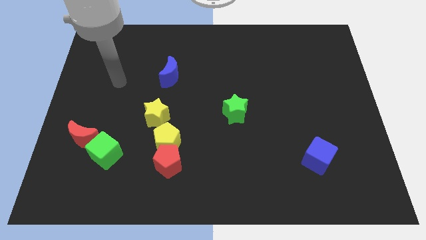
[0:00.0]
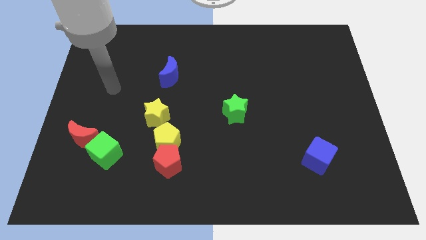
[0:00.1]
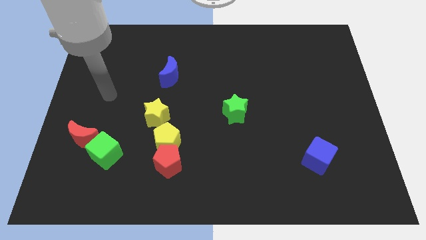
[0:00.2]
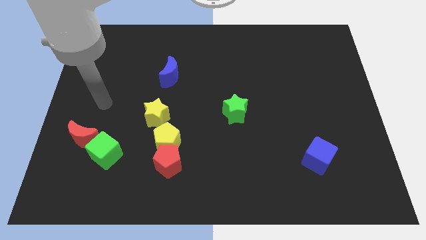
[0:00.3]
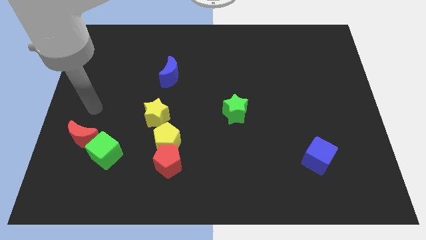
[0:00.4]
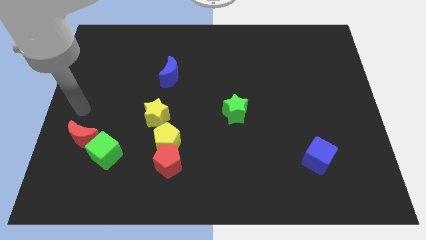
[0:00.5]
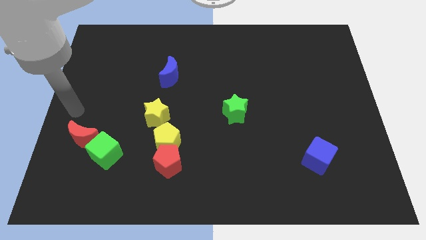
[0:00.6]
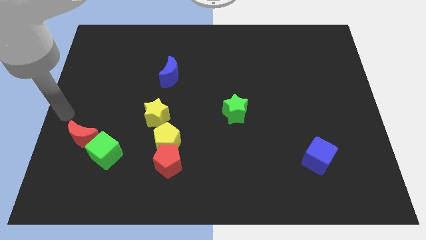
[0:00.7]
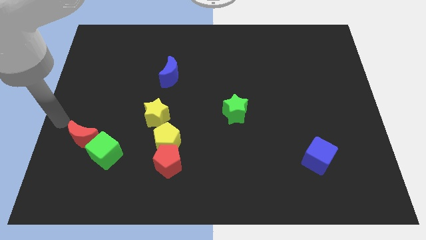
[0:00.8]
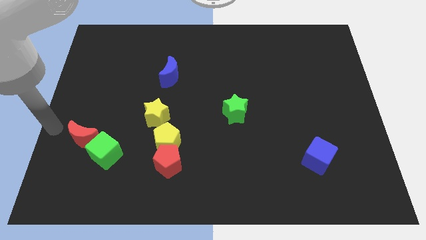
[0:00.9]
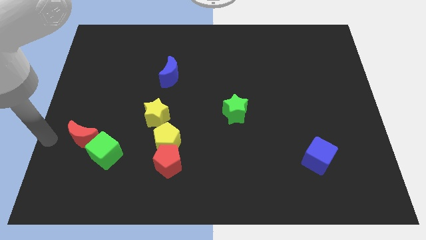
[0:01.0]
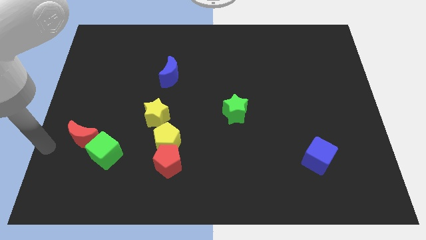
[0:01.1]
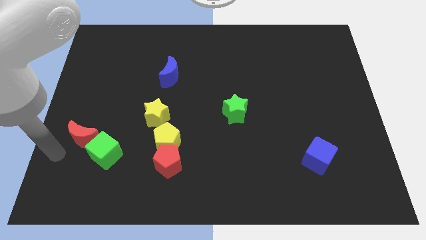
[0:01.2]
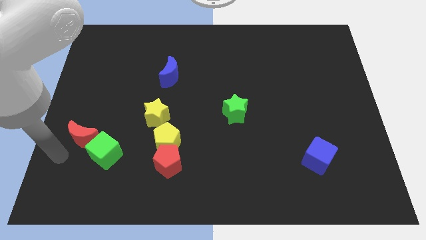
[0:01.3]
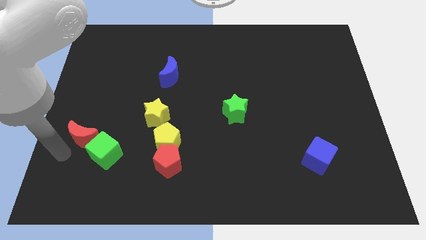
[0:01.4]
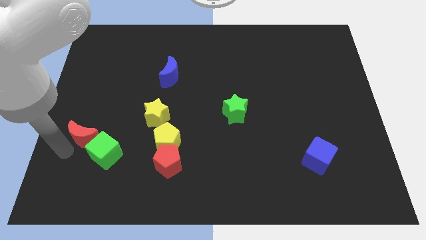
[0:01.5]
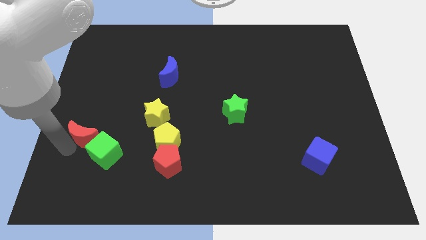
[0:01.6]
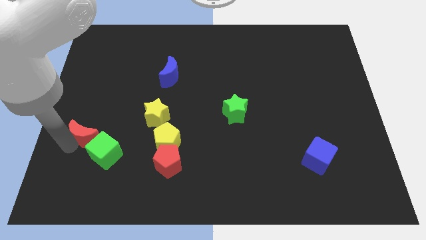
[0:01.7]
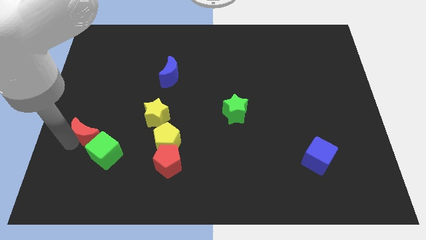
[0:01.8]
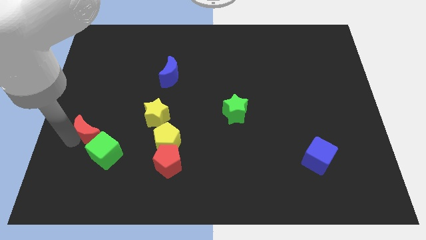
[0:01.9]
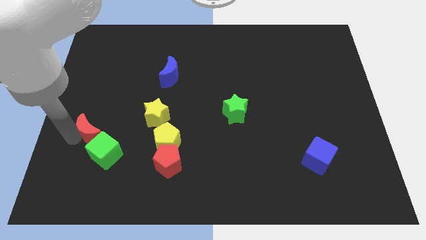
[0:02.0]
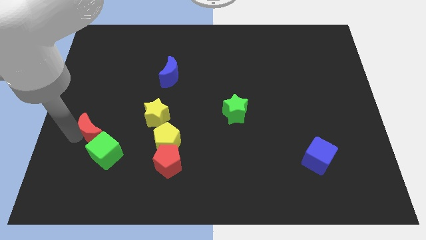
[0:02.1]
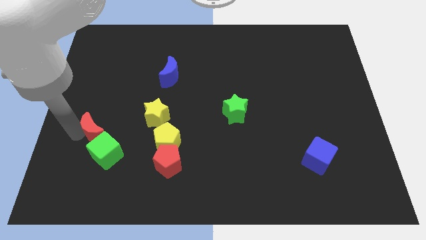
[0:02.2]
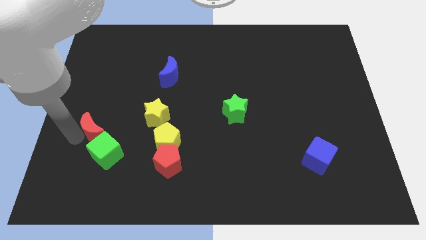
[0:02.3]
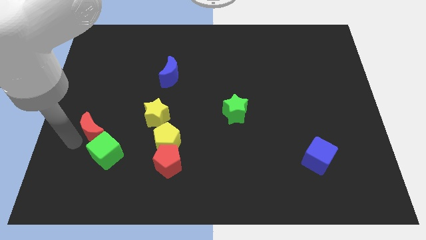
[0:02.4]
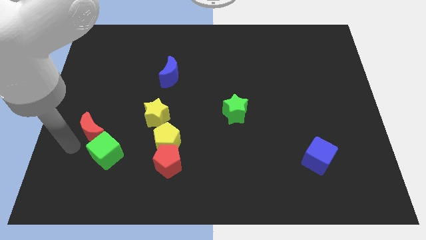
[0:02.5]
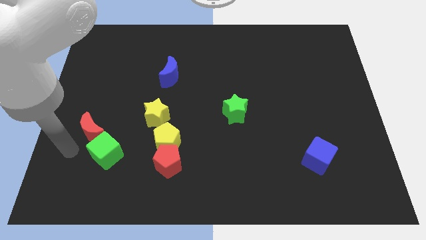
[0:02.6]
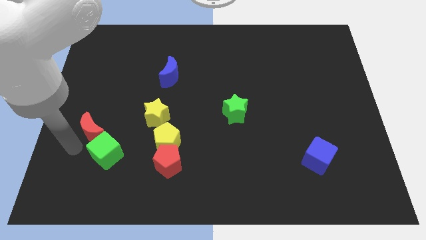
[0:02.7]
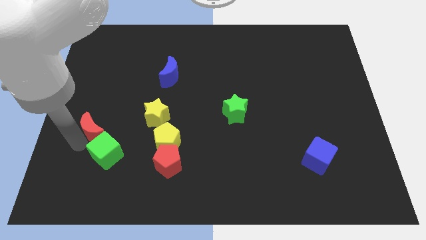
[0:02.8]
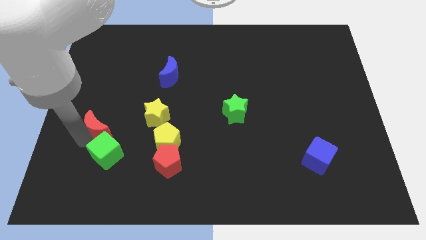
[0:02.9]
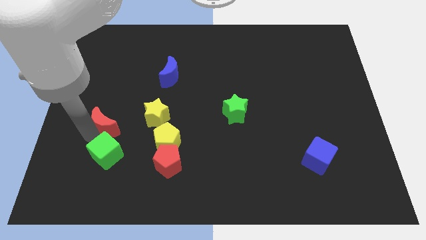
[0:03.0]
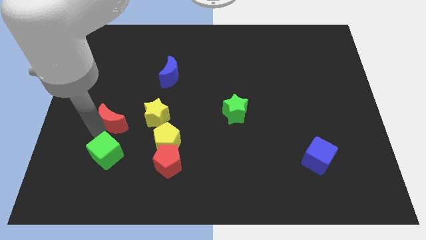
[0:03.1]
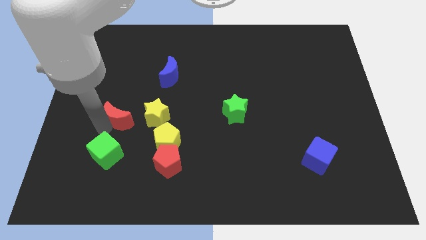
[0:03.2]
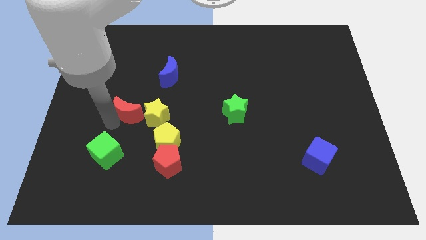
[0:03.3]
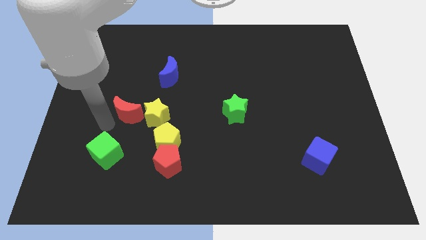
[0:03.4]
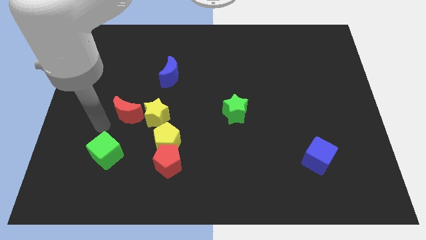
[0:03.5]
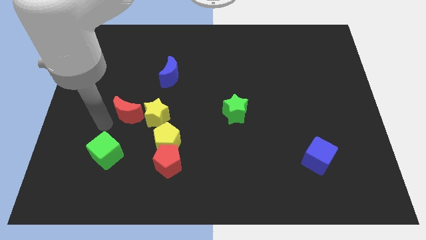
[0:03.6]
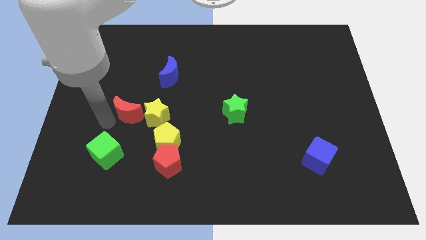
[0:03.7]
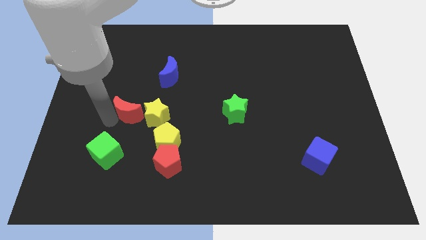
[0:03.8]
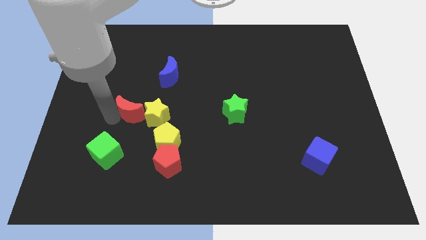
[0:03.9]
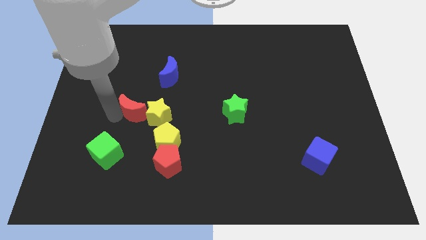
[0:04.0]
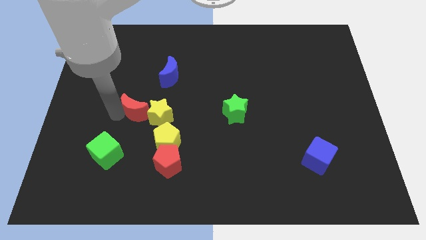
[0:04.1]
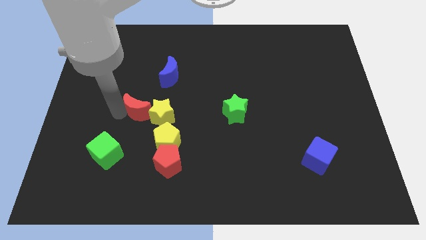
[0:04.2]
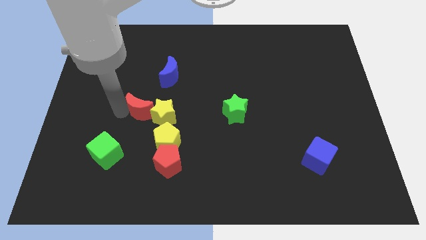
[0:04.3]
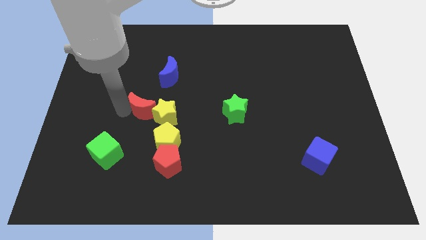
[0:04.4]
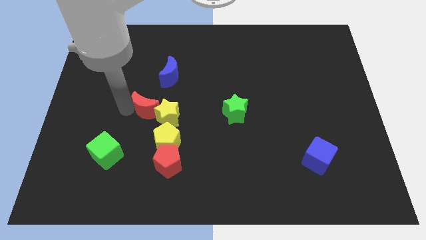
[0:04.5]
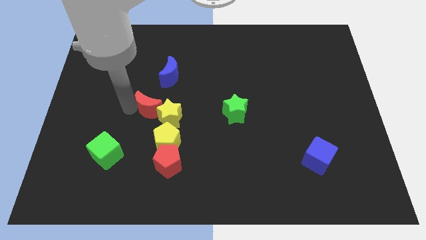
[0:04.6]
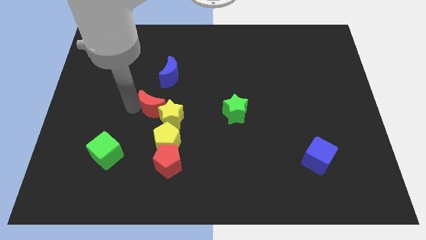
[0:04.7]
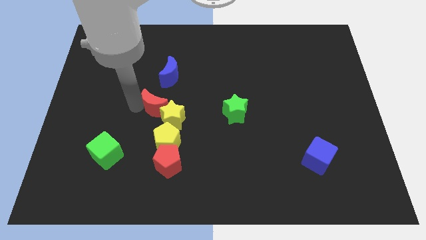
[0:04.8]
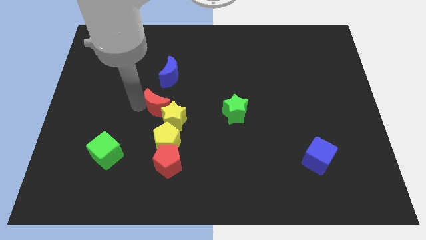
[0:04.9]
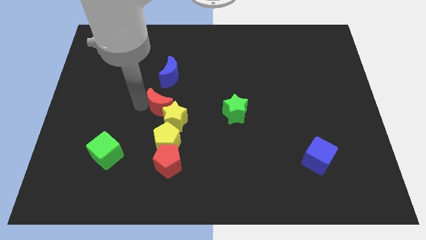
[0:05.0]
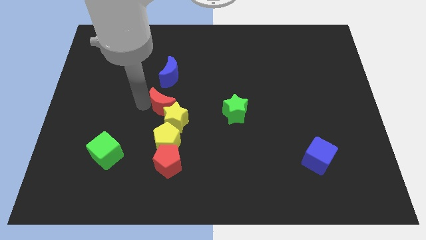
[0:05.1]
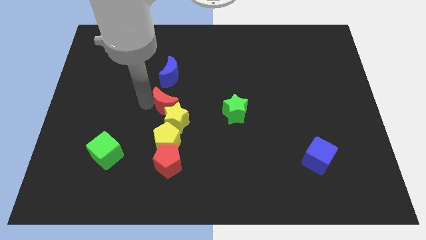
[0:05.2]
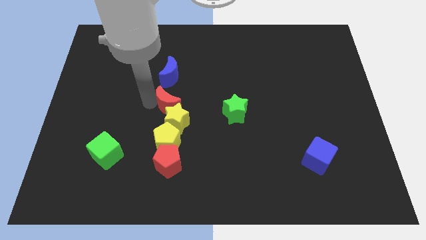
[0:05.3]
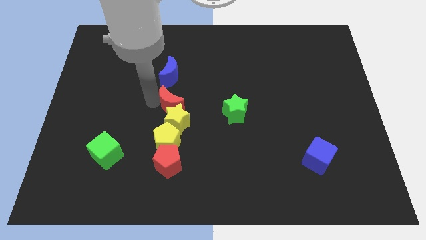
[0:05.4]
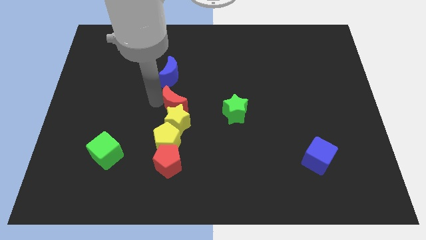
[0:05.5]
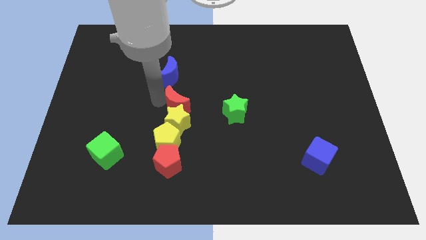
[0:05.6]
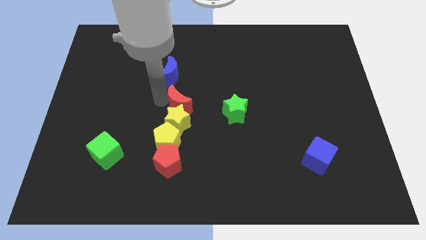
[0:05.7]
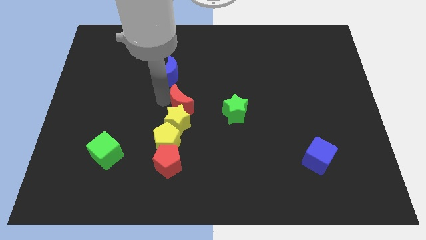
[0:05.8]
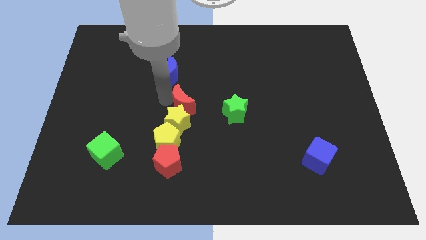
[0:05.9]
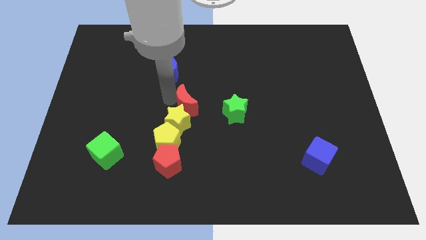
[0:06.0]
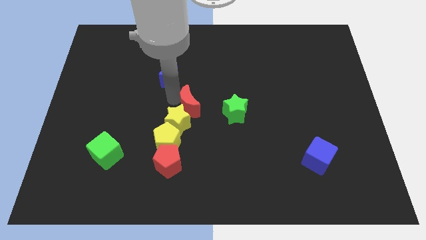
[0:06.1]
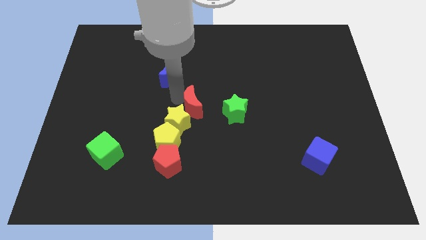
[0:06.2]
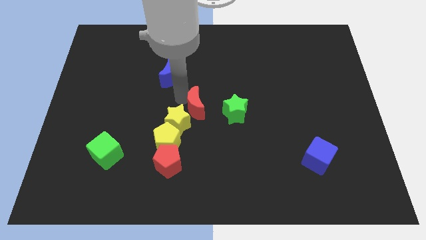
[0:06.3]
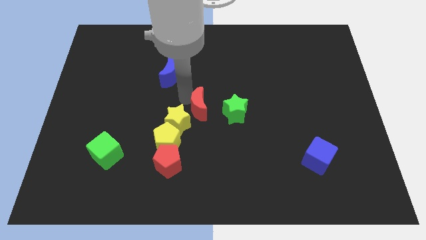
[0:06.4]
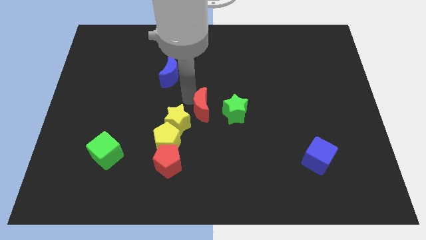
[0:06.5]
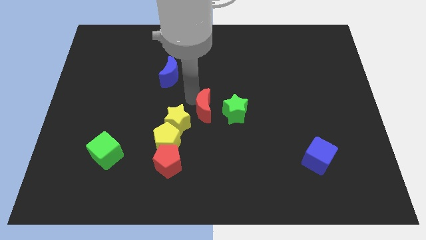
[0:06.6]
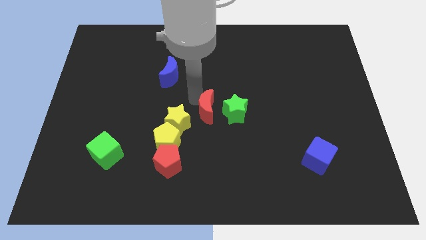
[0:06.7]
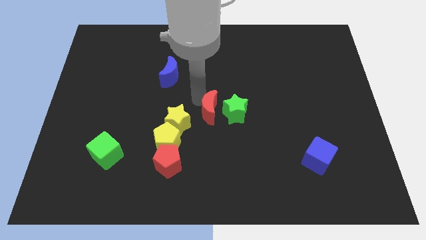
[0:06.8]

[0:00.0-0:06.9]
push the red moon diagonally down and to the left of the green star

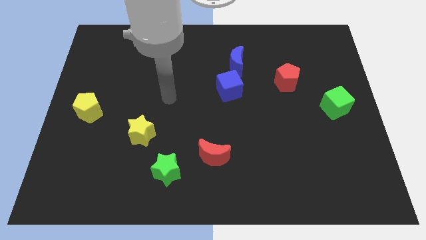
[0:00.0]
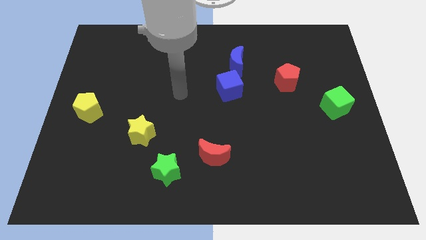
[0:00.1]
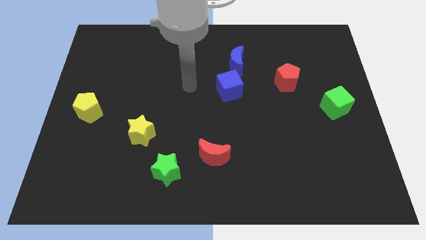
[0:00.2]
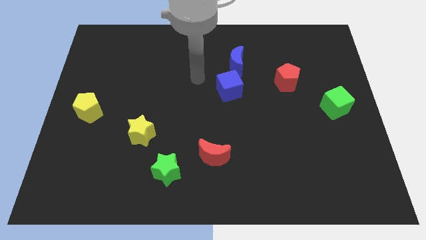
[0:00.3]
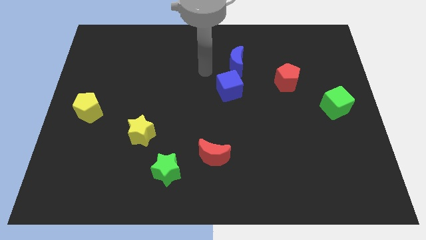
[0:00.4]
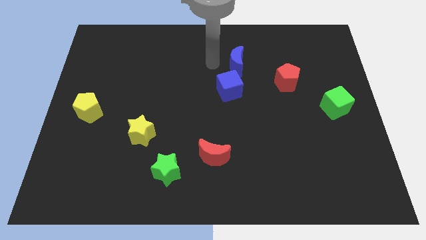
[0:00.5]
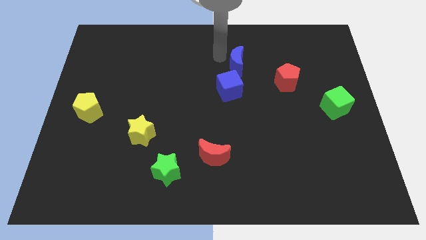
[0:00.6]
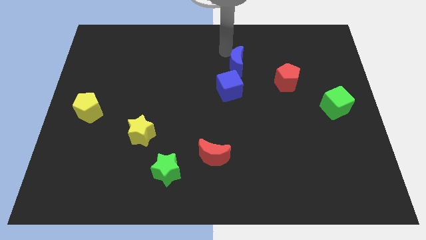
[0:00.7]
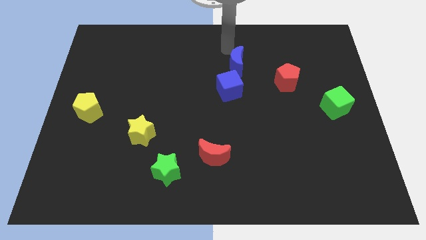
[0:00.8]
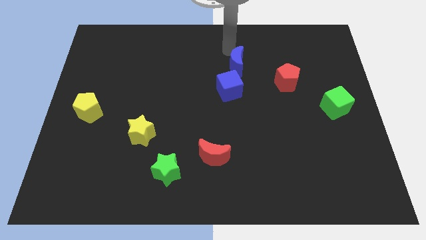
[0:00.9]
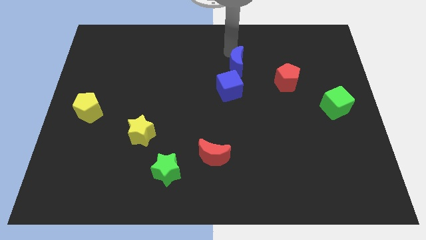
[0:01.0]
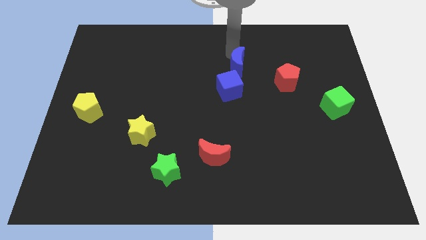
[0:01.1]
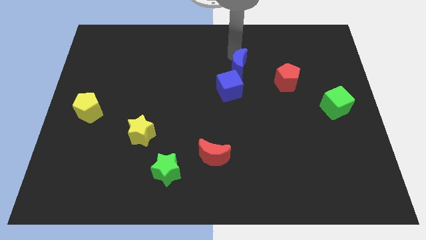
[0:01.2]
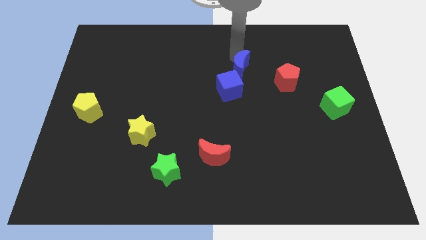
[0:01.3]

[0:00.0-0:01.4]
slide the blue moon left of the red pentagon
